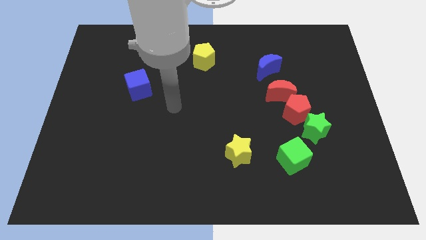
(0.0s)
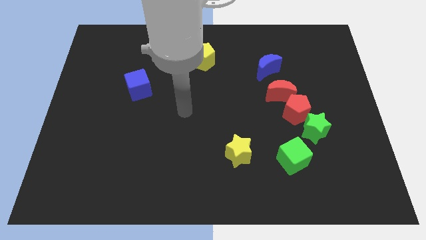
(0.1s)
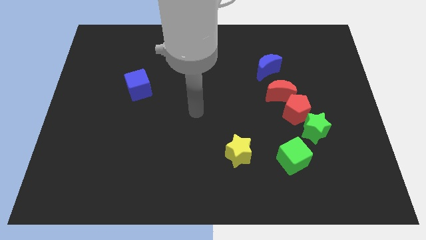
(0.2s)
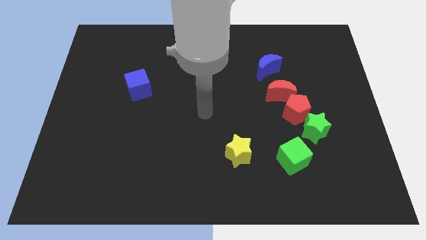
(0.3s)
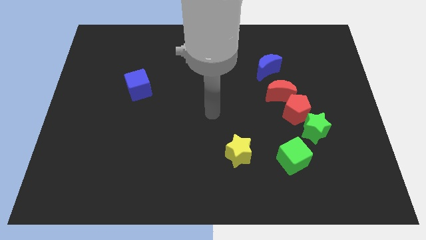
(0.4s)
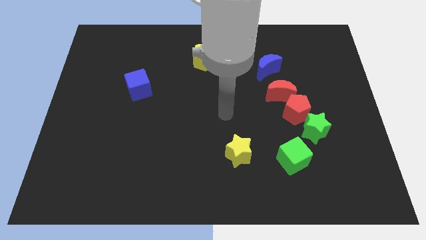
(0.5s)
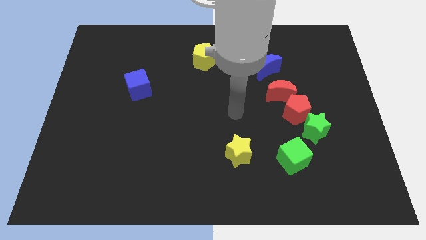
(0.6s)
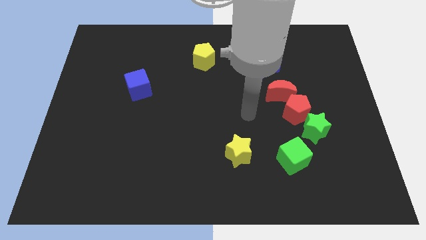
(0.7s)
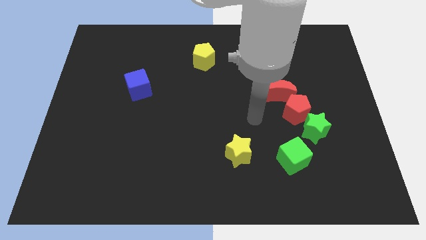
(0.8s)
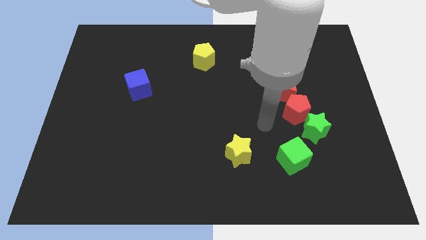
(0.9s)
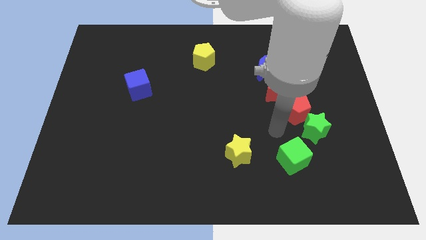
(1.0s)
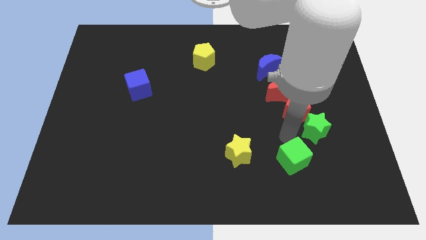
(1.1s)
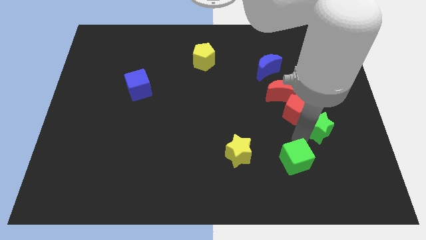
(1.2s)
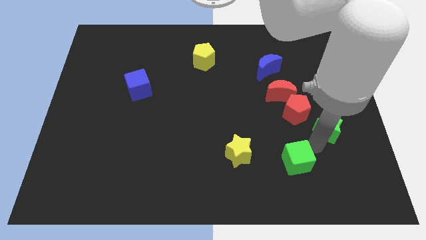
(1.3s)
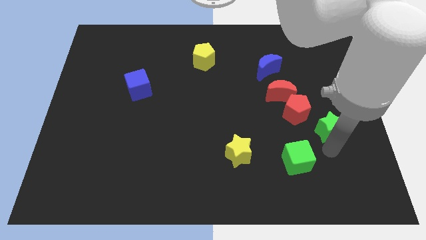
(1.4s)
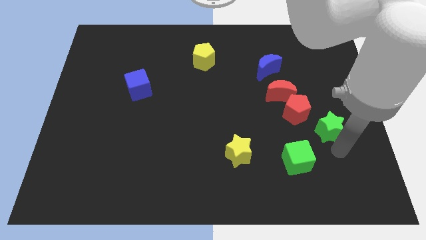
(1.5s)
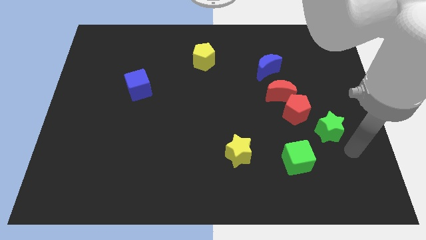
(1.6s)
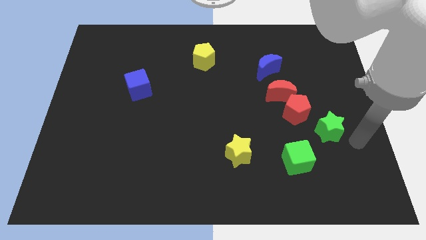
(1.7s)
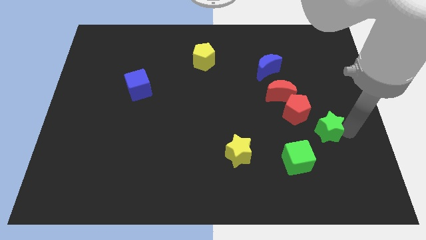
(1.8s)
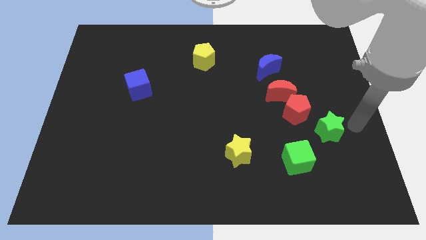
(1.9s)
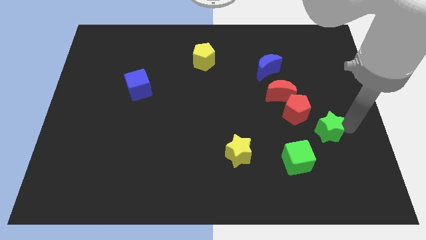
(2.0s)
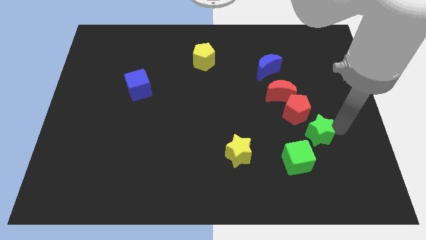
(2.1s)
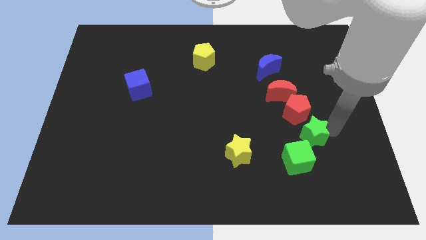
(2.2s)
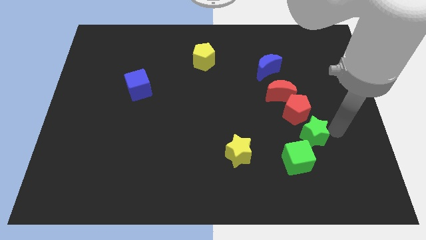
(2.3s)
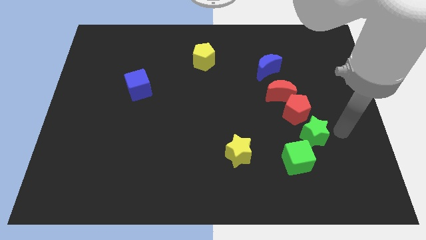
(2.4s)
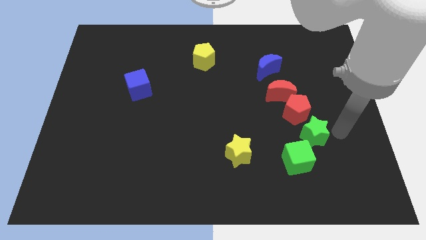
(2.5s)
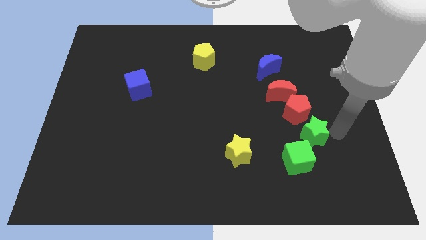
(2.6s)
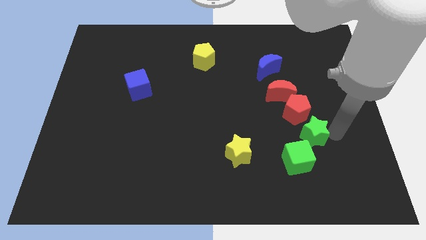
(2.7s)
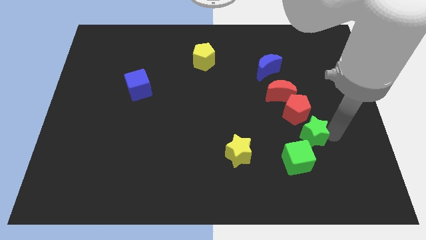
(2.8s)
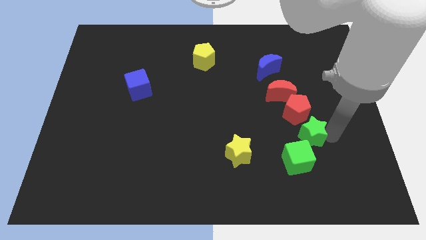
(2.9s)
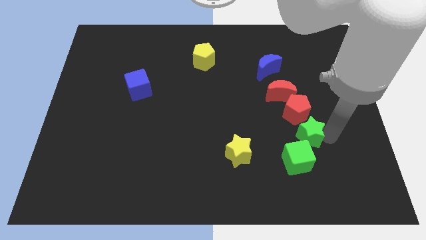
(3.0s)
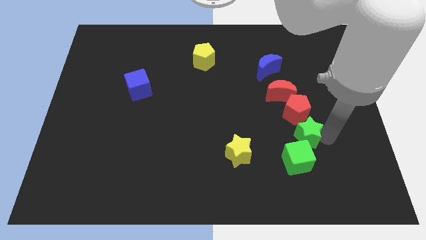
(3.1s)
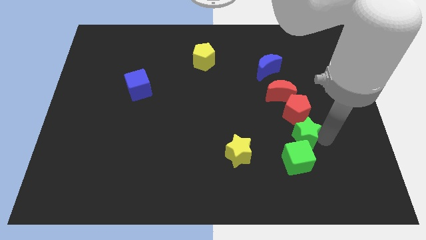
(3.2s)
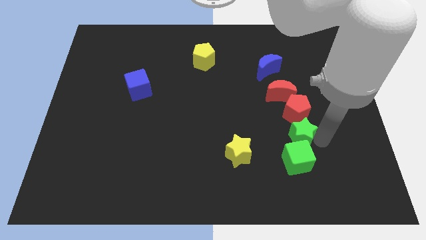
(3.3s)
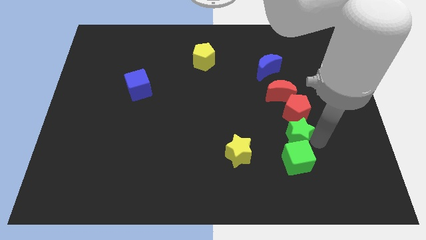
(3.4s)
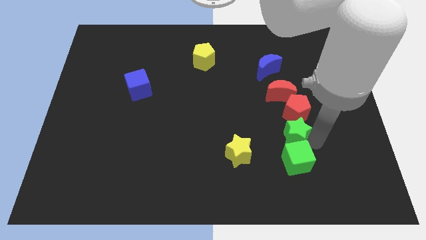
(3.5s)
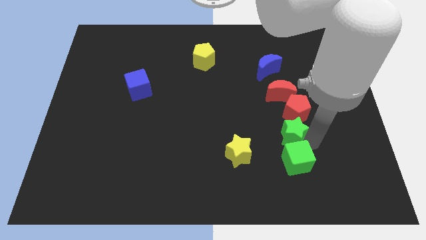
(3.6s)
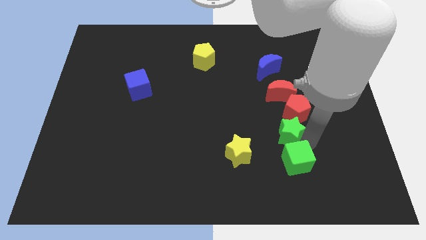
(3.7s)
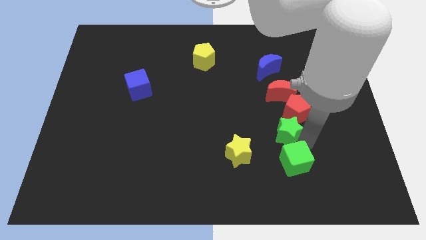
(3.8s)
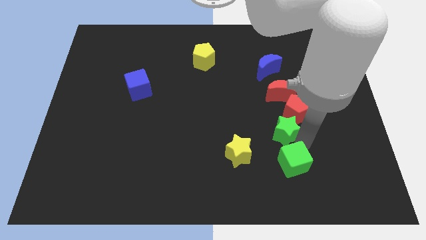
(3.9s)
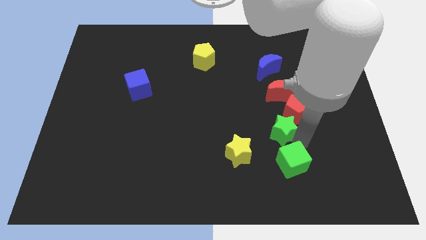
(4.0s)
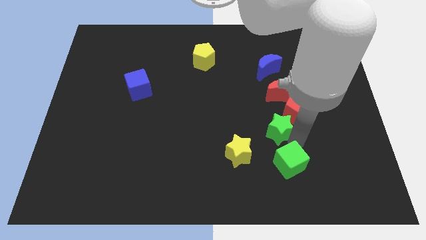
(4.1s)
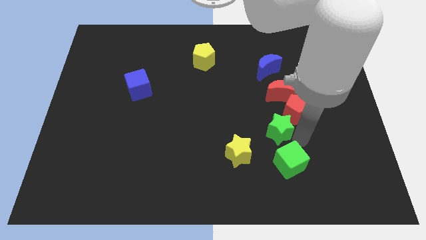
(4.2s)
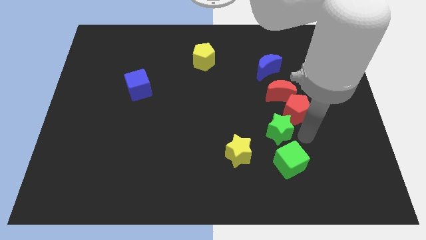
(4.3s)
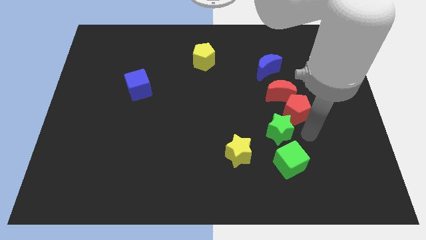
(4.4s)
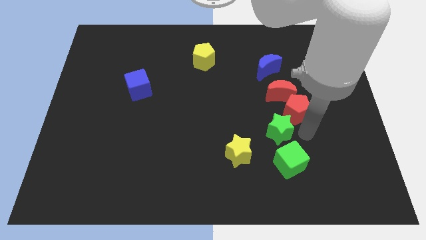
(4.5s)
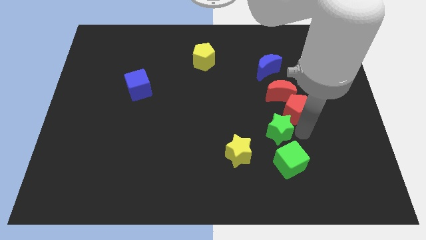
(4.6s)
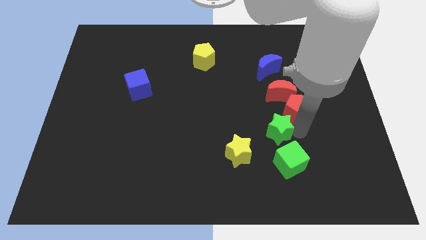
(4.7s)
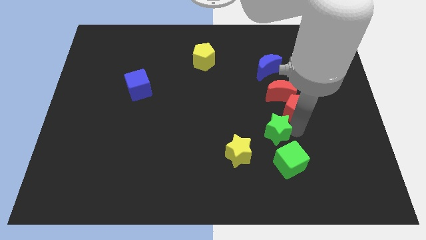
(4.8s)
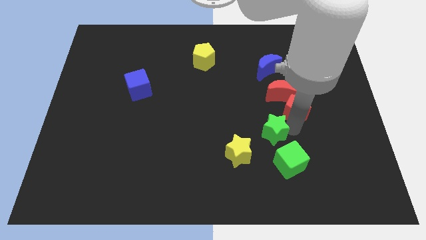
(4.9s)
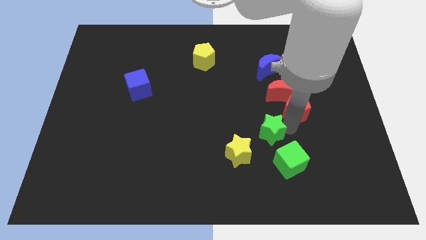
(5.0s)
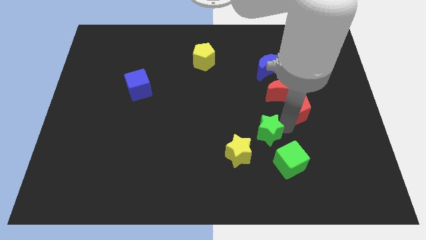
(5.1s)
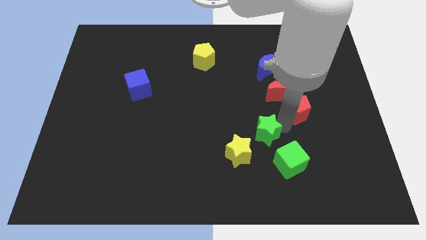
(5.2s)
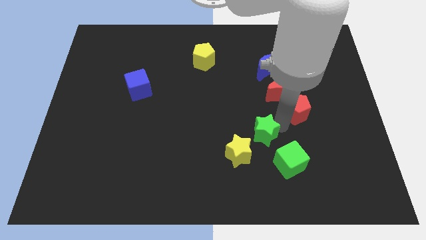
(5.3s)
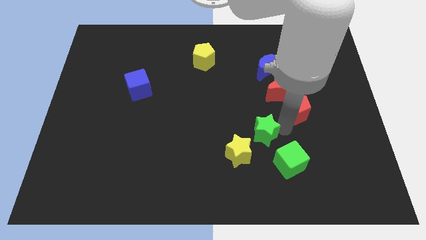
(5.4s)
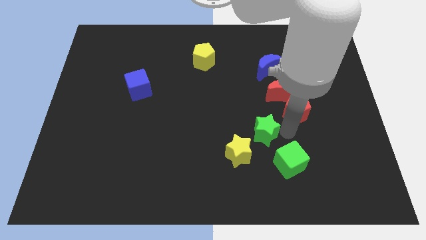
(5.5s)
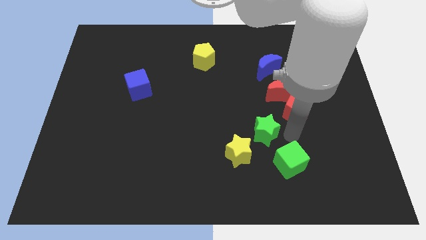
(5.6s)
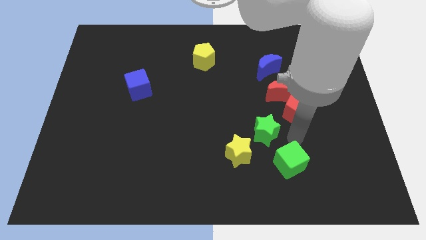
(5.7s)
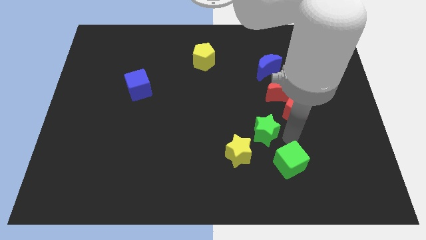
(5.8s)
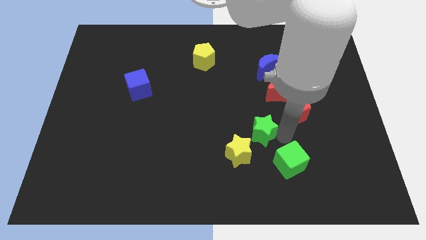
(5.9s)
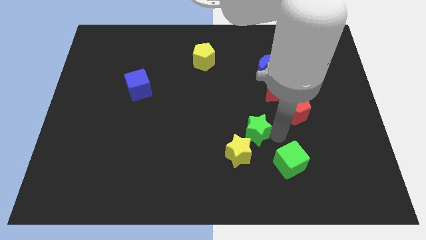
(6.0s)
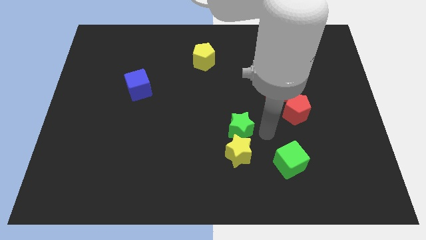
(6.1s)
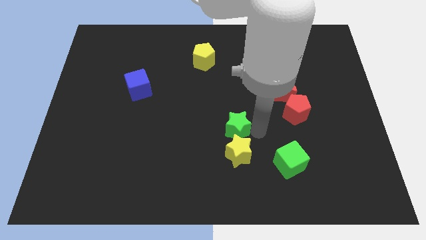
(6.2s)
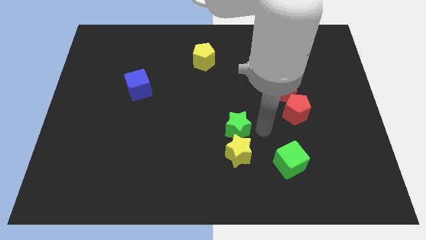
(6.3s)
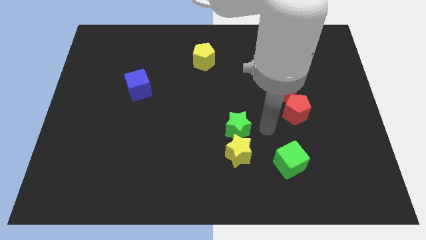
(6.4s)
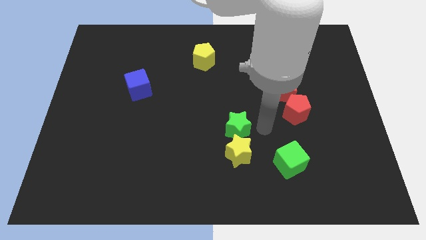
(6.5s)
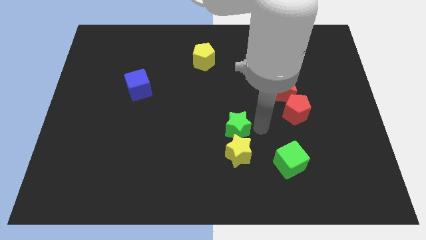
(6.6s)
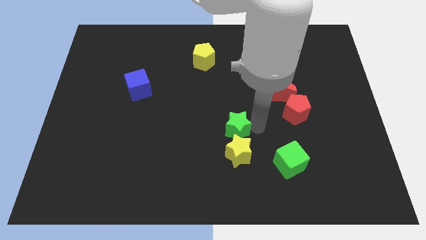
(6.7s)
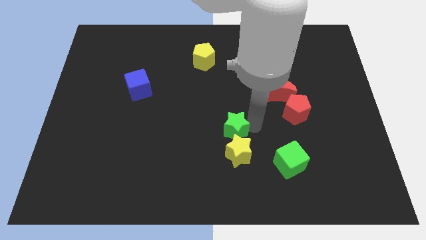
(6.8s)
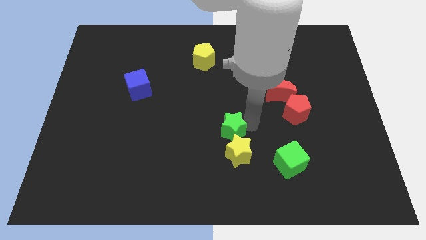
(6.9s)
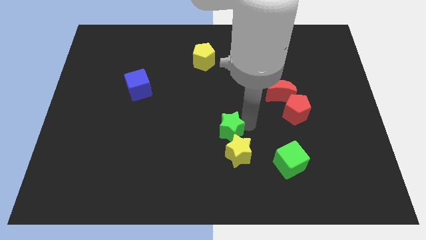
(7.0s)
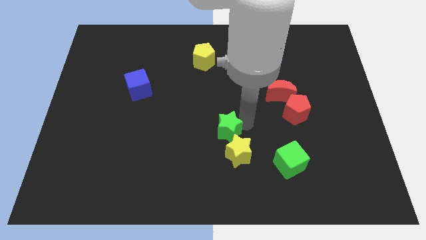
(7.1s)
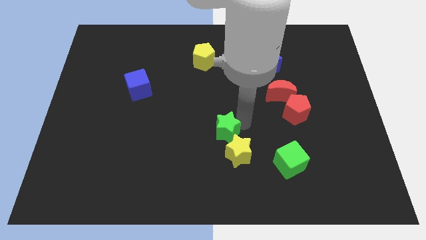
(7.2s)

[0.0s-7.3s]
push the green star left
